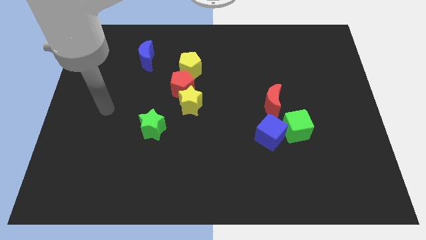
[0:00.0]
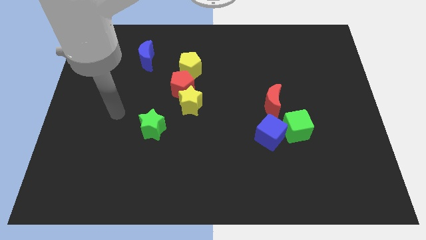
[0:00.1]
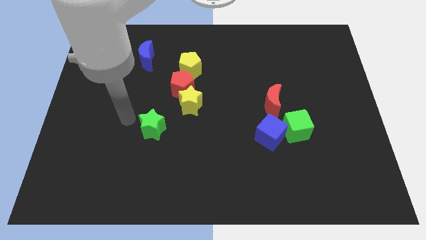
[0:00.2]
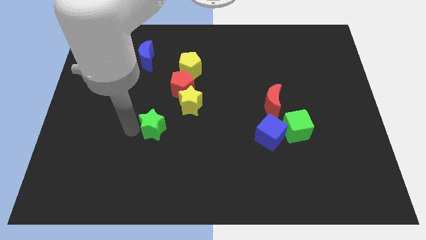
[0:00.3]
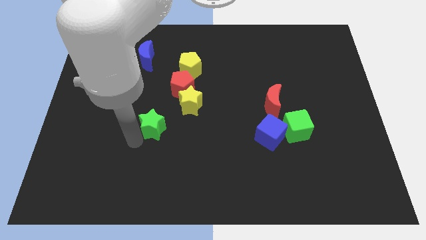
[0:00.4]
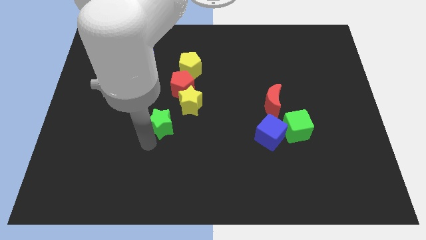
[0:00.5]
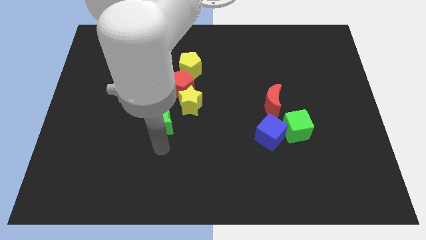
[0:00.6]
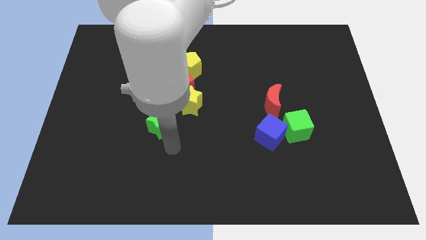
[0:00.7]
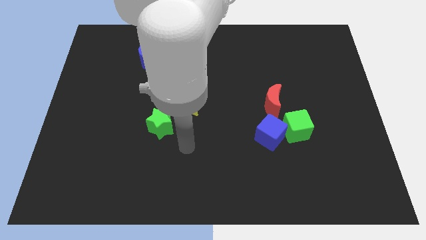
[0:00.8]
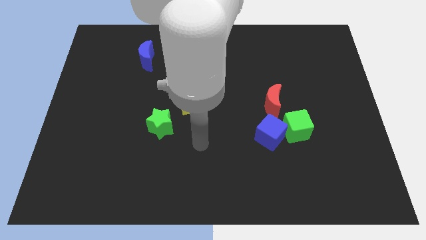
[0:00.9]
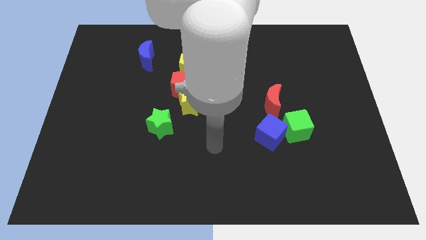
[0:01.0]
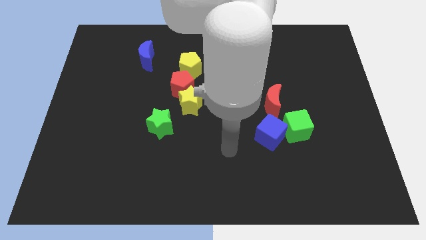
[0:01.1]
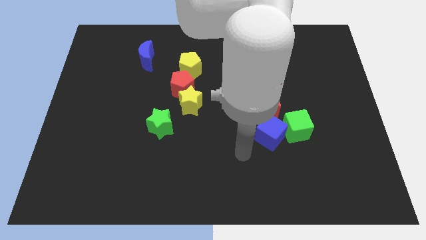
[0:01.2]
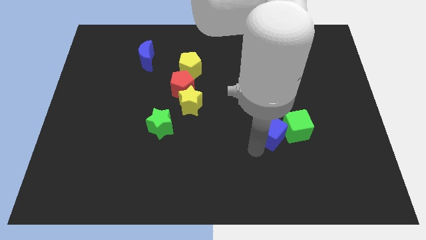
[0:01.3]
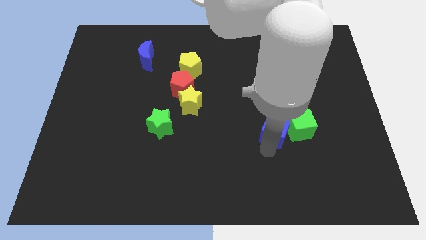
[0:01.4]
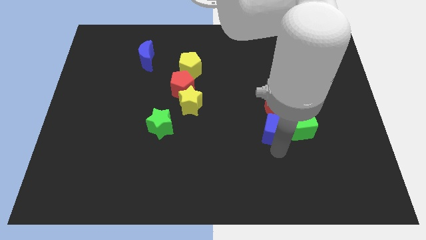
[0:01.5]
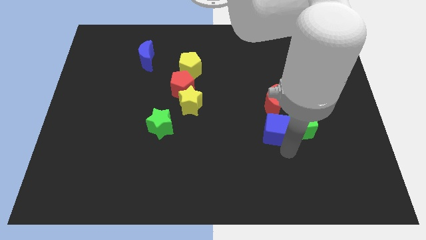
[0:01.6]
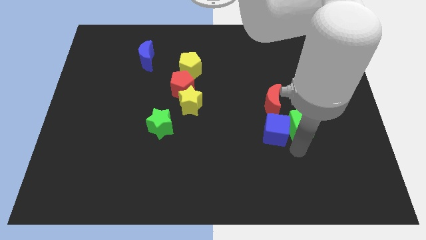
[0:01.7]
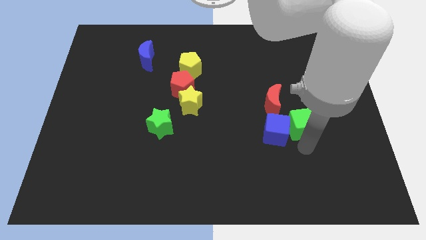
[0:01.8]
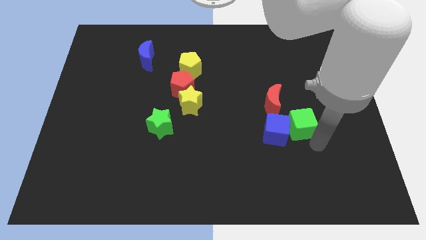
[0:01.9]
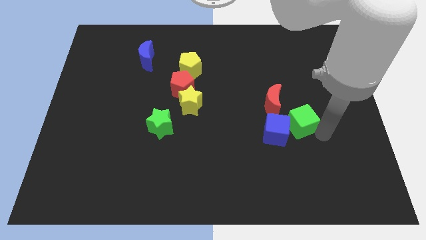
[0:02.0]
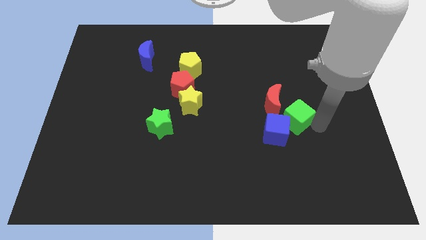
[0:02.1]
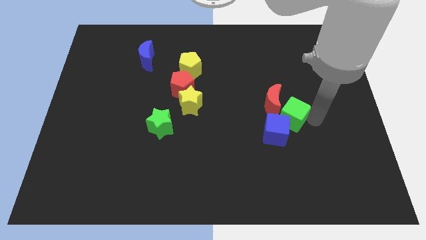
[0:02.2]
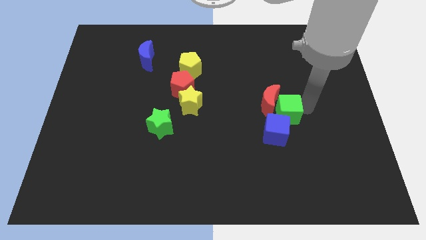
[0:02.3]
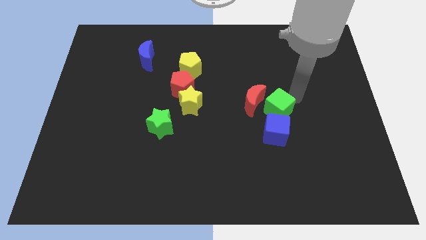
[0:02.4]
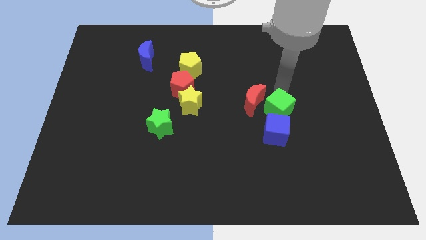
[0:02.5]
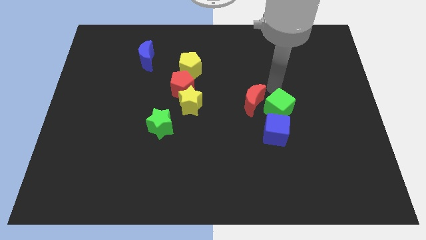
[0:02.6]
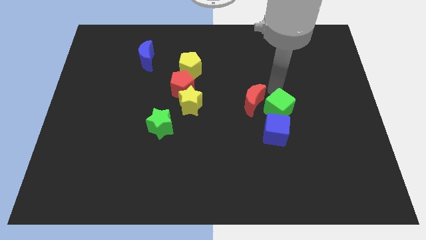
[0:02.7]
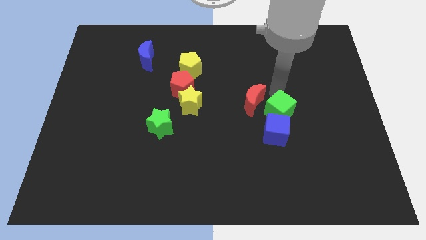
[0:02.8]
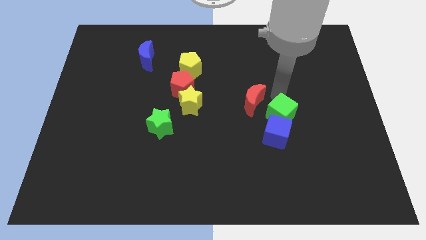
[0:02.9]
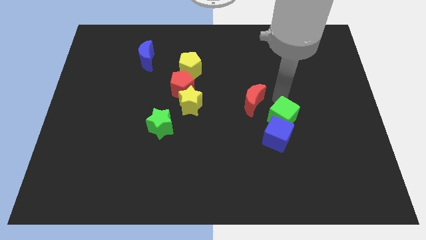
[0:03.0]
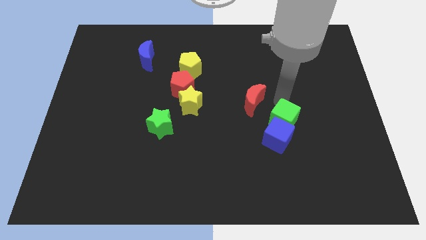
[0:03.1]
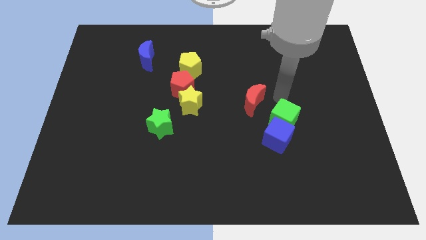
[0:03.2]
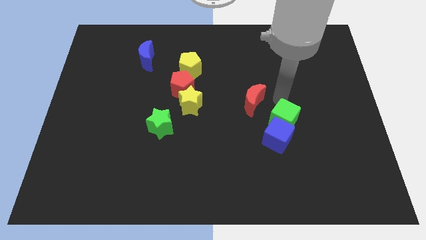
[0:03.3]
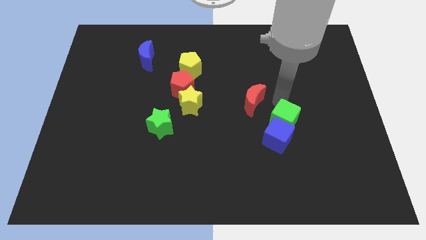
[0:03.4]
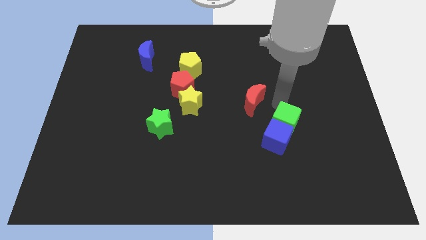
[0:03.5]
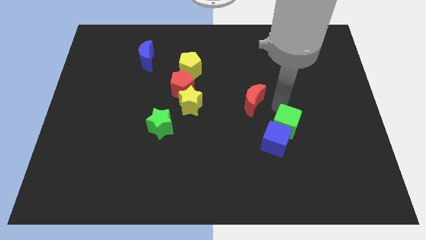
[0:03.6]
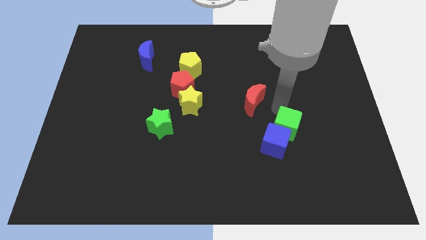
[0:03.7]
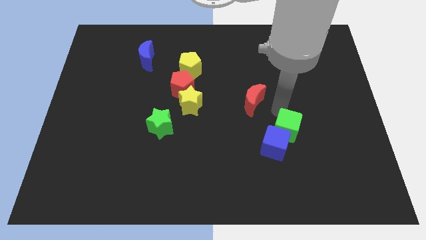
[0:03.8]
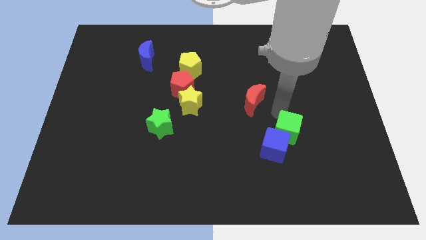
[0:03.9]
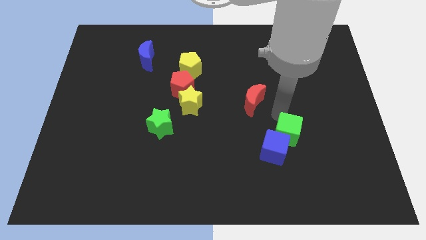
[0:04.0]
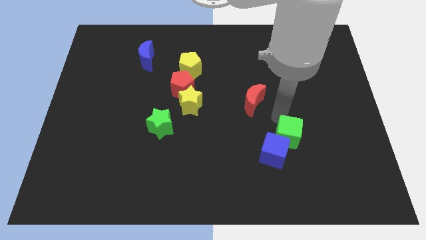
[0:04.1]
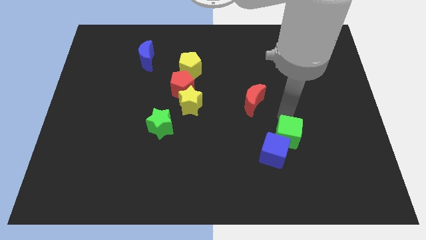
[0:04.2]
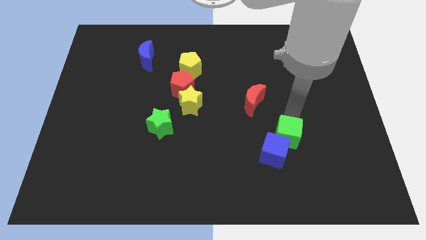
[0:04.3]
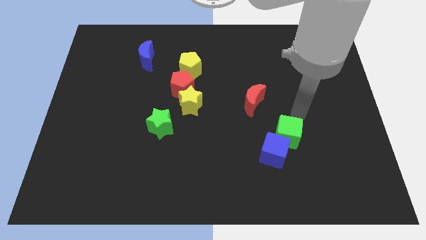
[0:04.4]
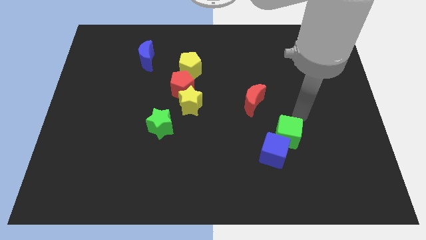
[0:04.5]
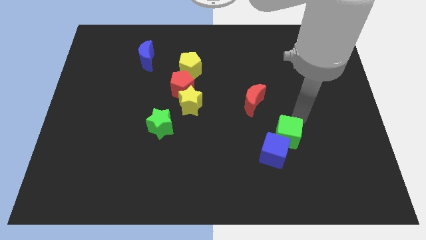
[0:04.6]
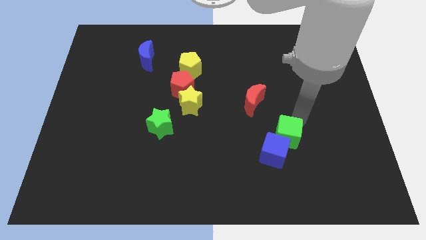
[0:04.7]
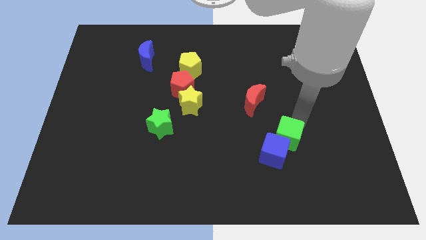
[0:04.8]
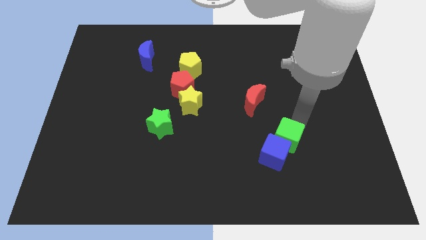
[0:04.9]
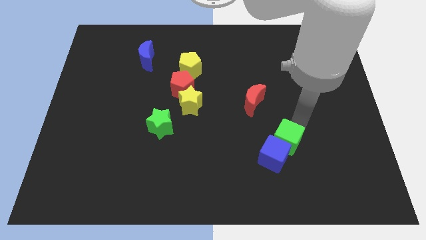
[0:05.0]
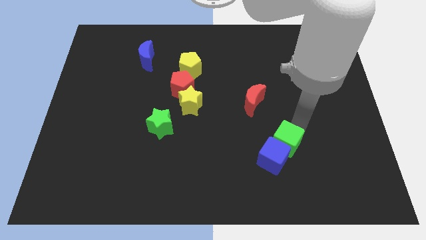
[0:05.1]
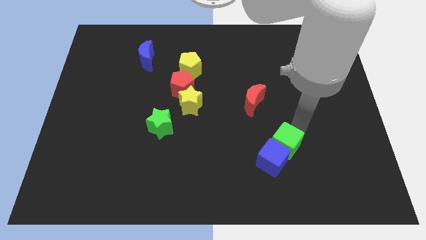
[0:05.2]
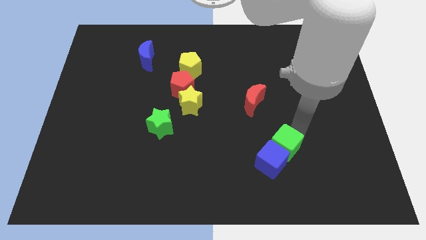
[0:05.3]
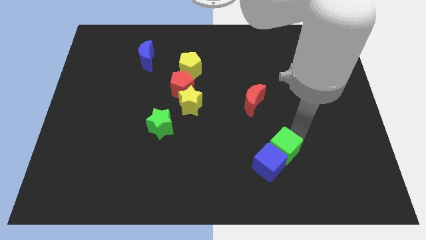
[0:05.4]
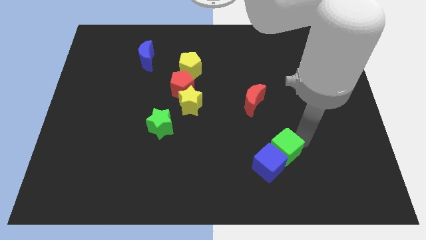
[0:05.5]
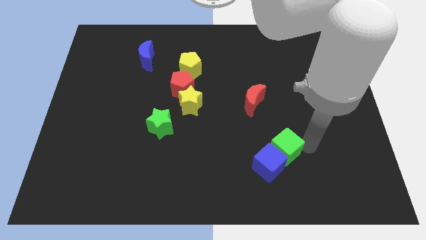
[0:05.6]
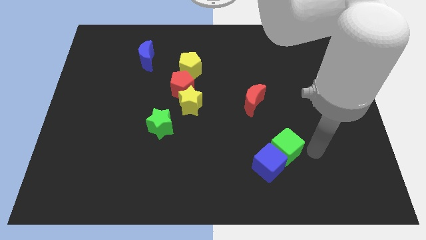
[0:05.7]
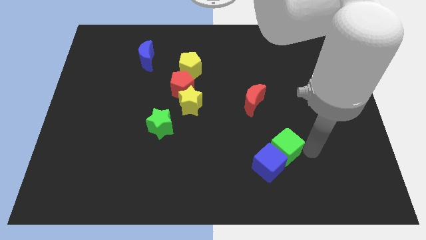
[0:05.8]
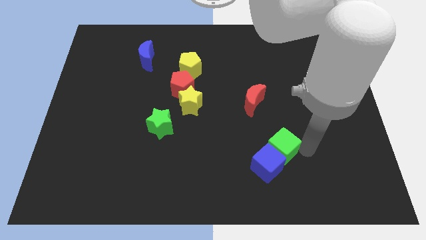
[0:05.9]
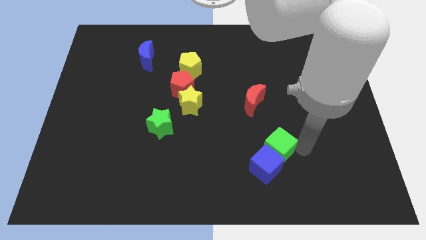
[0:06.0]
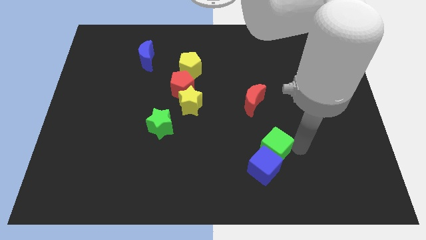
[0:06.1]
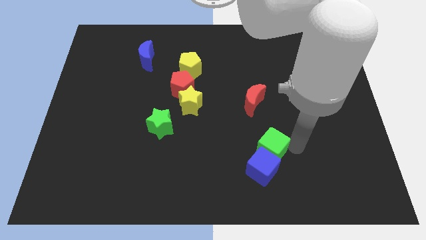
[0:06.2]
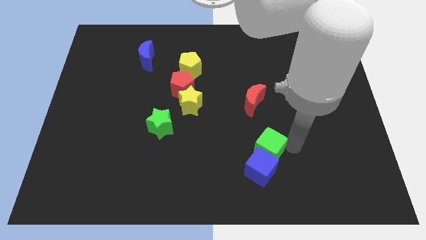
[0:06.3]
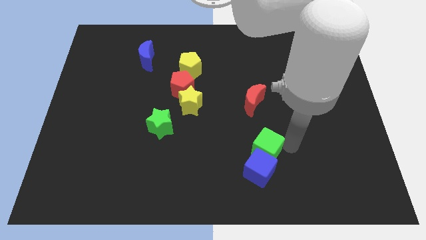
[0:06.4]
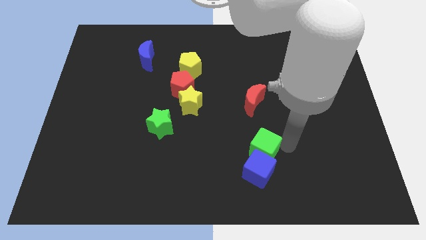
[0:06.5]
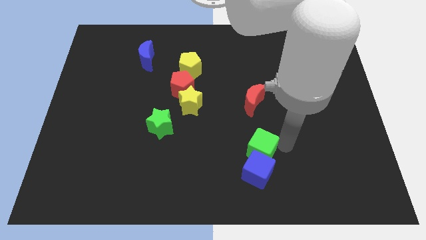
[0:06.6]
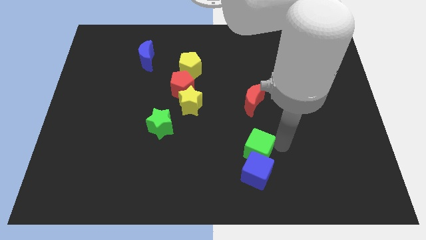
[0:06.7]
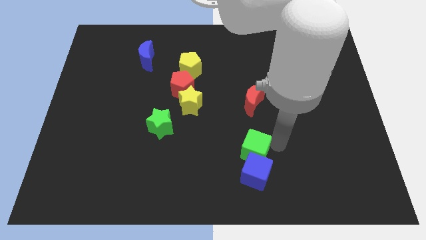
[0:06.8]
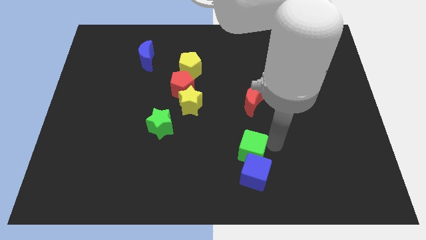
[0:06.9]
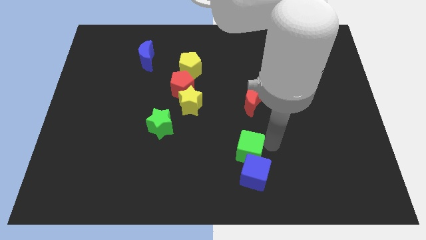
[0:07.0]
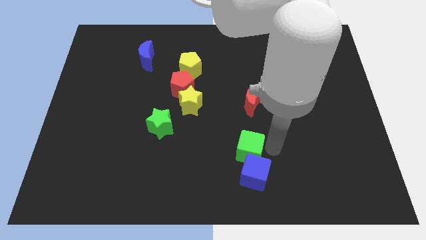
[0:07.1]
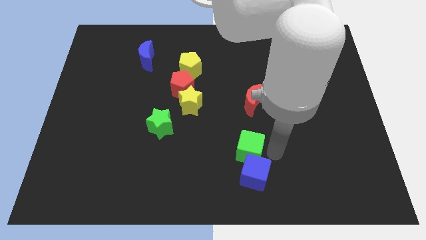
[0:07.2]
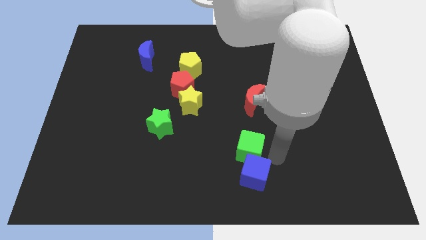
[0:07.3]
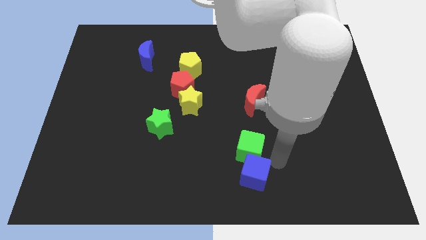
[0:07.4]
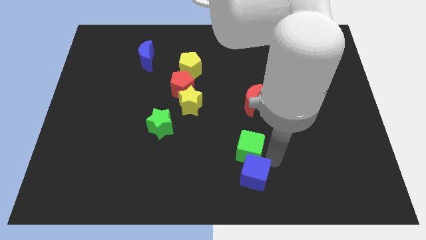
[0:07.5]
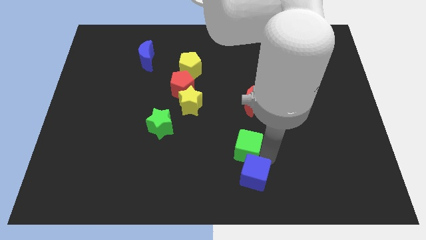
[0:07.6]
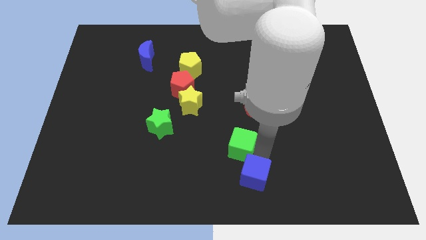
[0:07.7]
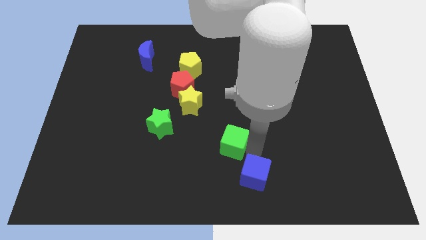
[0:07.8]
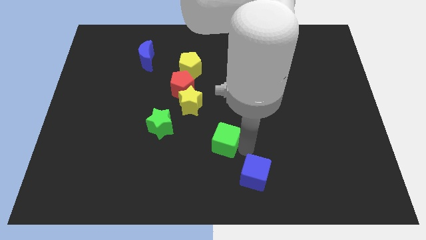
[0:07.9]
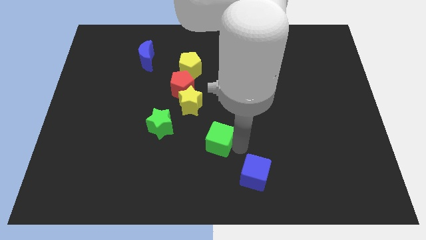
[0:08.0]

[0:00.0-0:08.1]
slide the green cube just right of the green star
